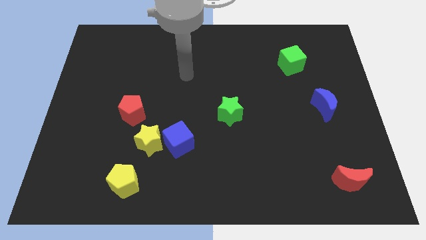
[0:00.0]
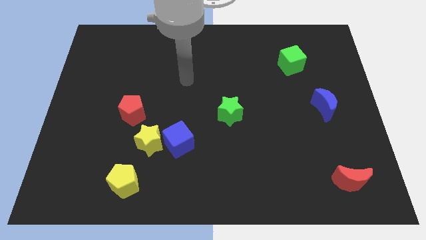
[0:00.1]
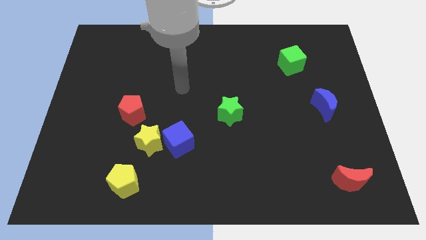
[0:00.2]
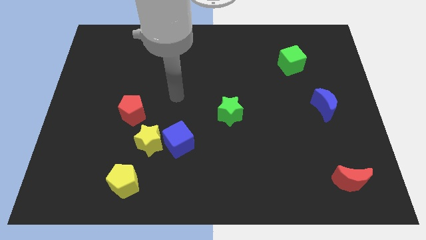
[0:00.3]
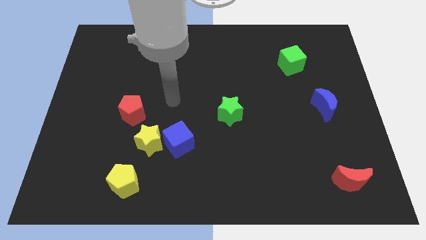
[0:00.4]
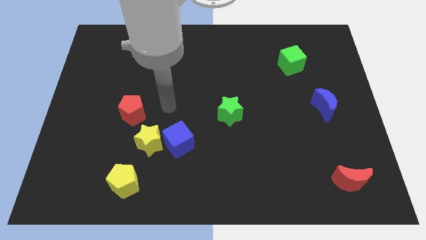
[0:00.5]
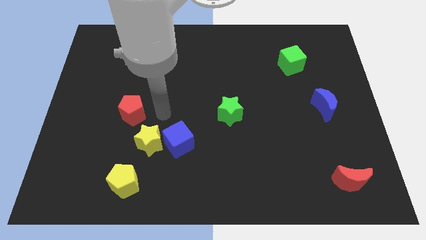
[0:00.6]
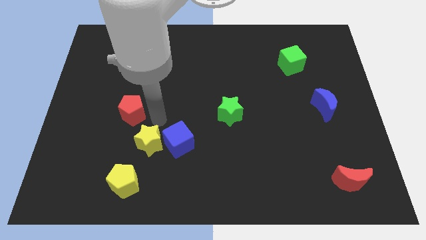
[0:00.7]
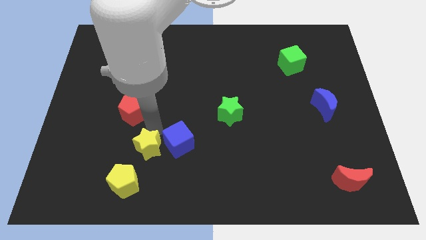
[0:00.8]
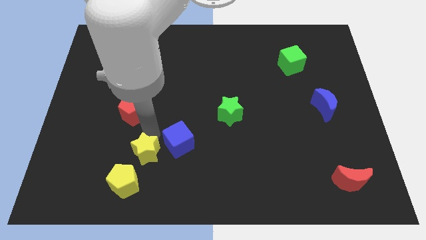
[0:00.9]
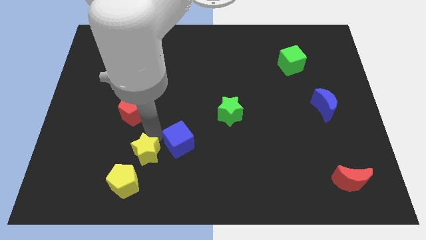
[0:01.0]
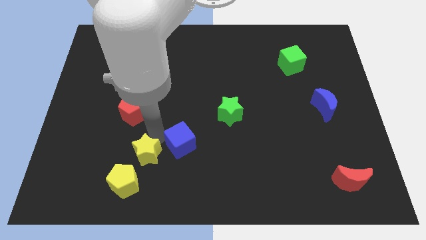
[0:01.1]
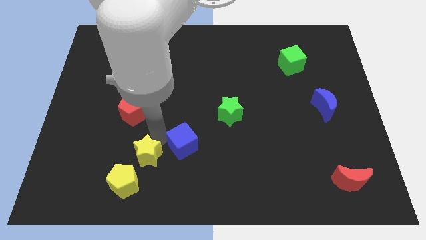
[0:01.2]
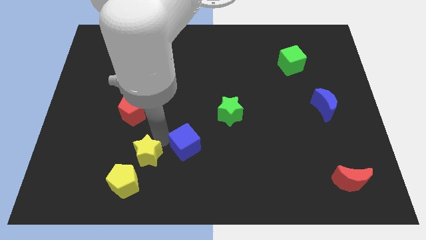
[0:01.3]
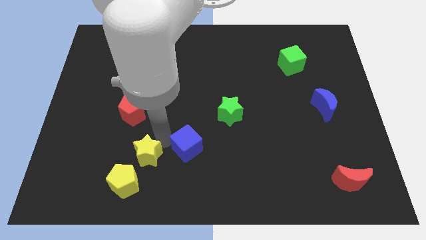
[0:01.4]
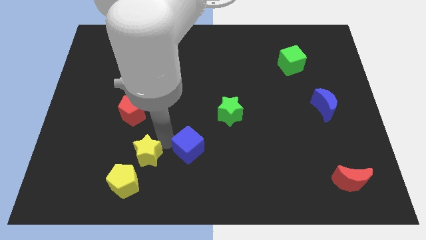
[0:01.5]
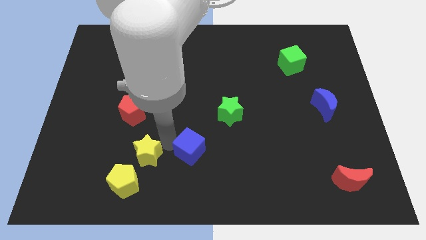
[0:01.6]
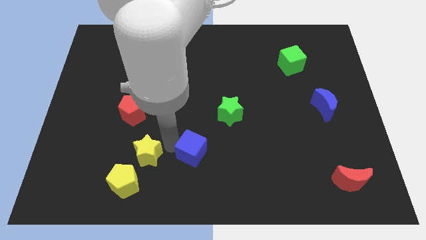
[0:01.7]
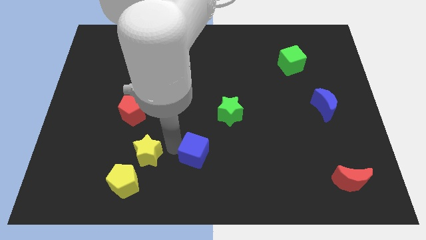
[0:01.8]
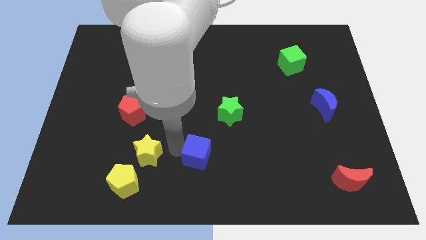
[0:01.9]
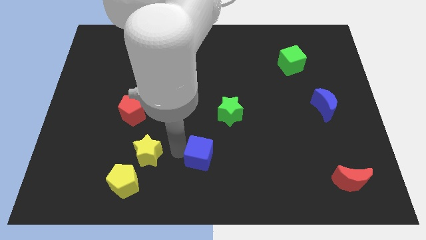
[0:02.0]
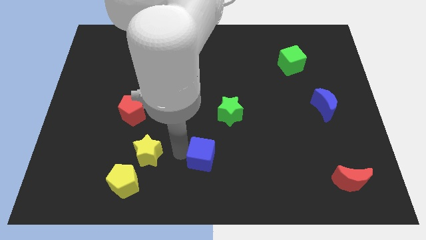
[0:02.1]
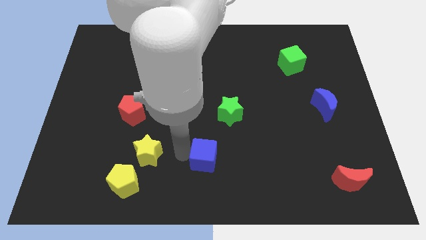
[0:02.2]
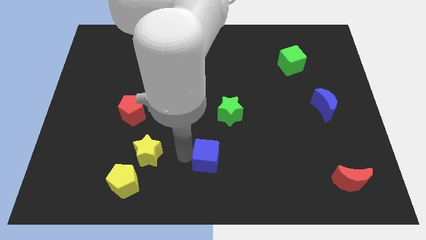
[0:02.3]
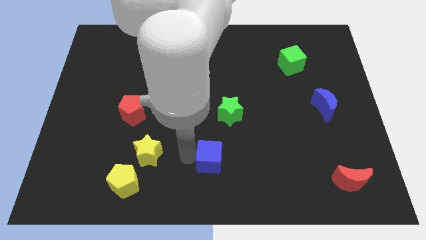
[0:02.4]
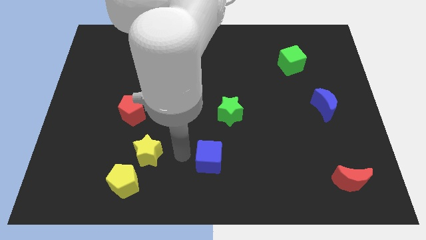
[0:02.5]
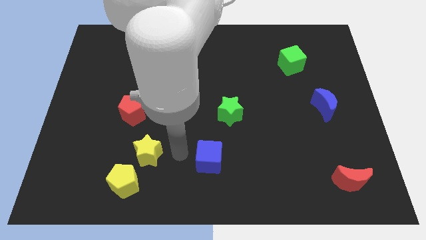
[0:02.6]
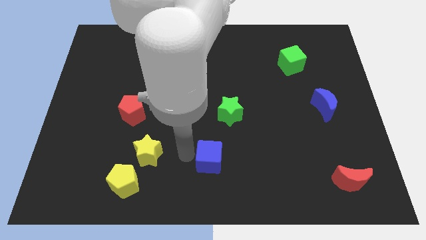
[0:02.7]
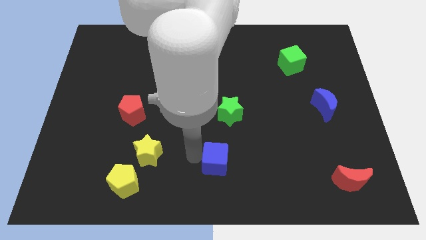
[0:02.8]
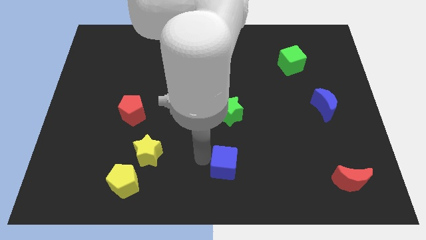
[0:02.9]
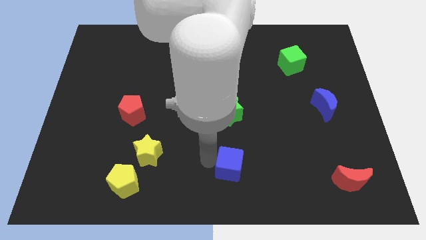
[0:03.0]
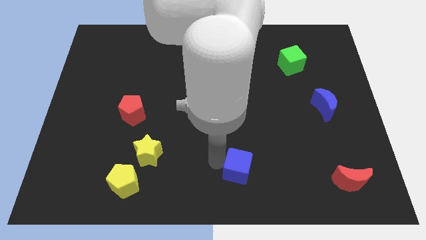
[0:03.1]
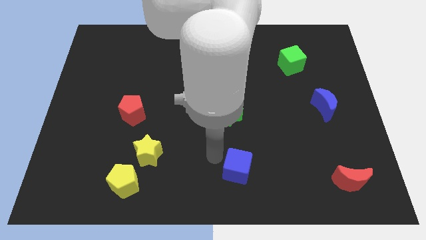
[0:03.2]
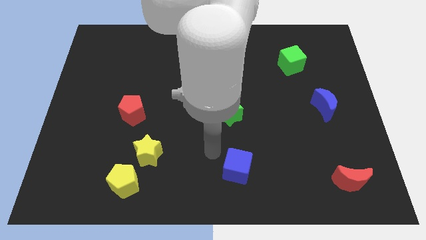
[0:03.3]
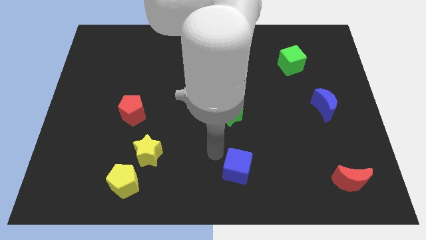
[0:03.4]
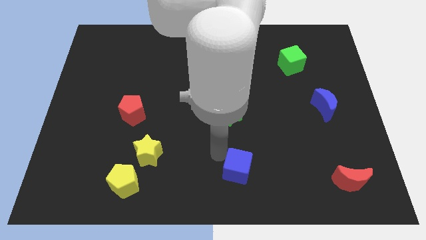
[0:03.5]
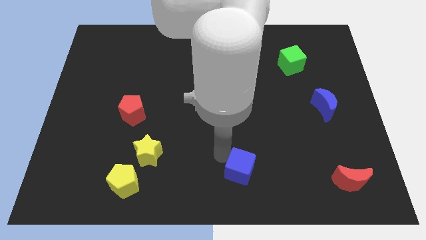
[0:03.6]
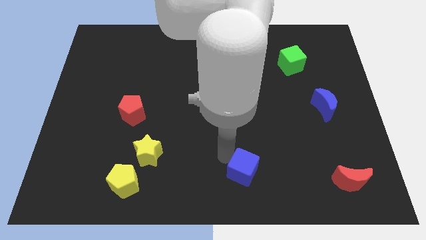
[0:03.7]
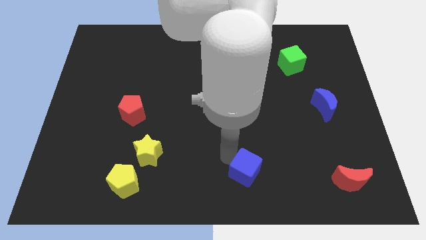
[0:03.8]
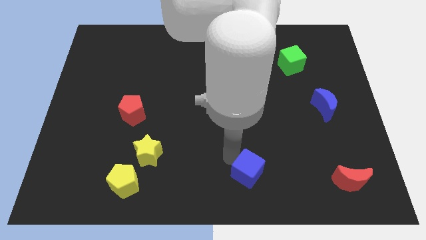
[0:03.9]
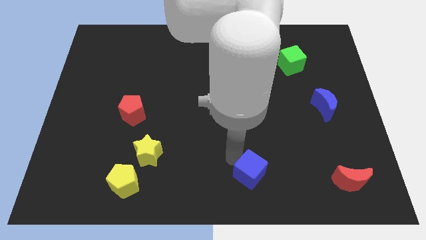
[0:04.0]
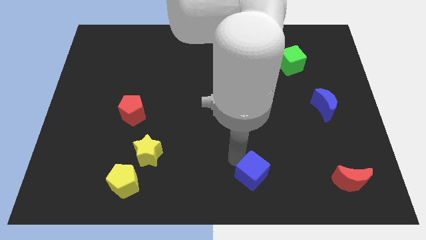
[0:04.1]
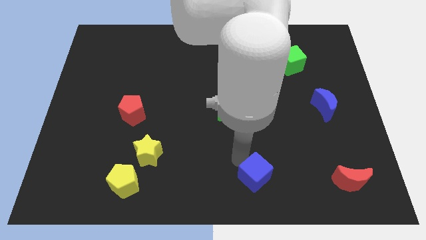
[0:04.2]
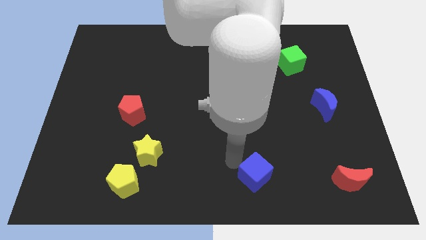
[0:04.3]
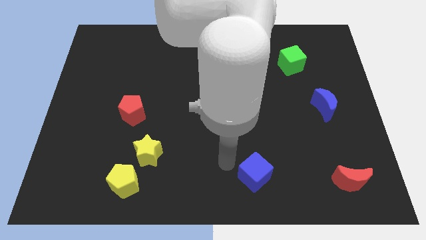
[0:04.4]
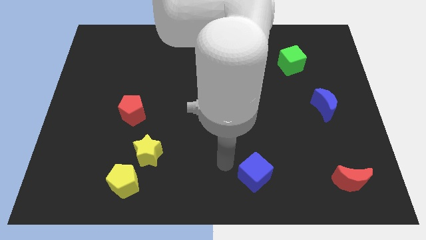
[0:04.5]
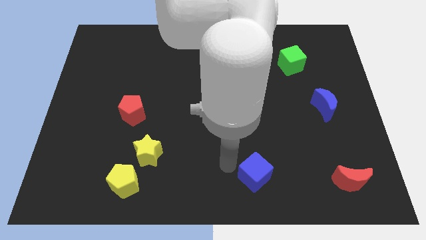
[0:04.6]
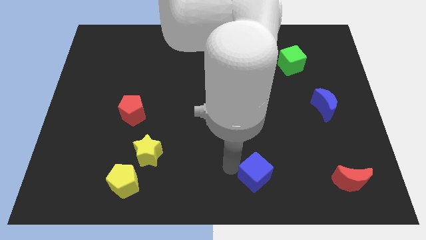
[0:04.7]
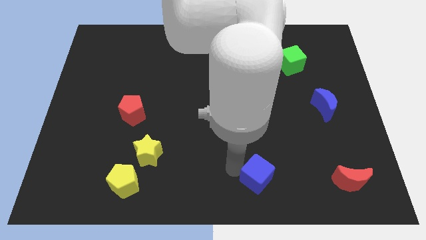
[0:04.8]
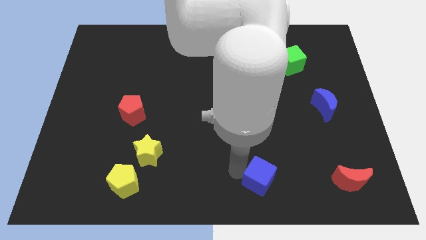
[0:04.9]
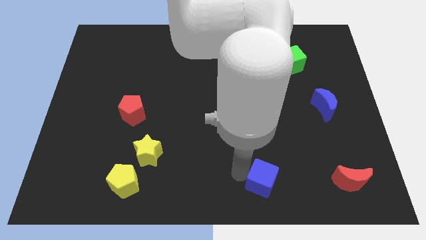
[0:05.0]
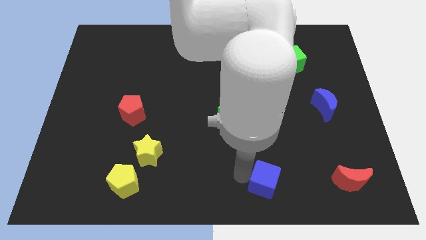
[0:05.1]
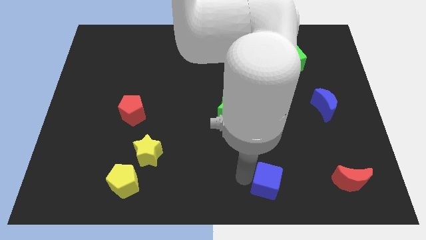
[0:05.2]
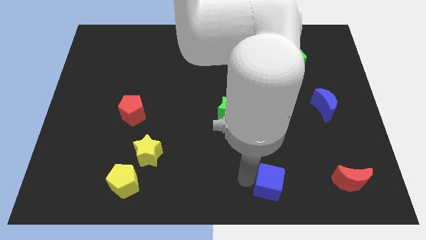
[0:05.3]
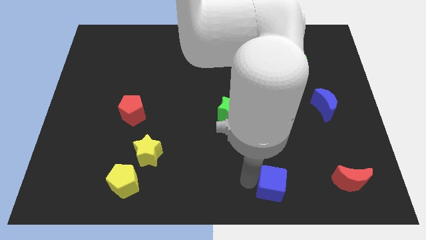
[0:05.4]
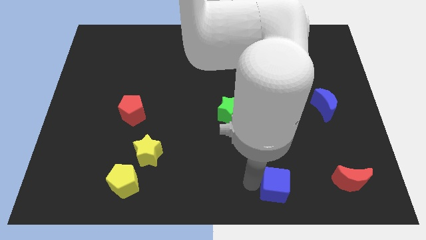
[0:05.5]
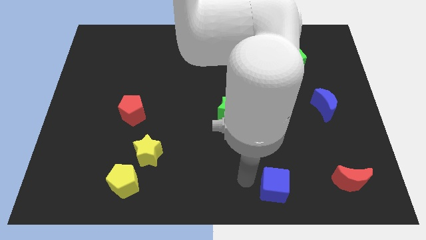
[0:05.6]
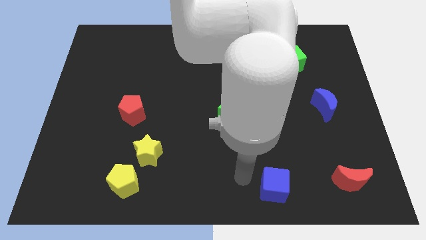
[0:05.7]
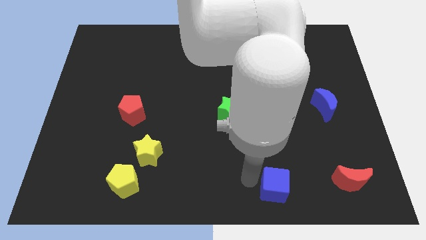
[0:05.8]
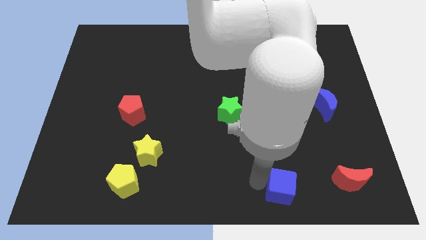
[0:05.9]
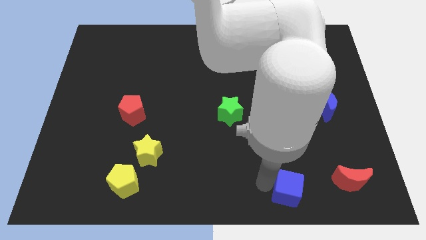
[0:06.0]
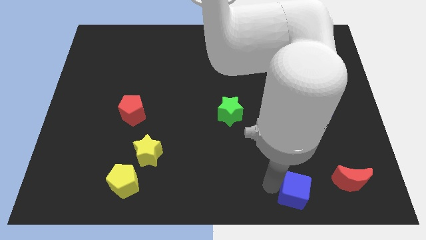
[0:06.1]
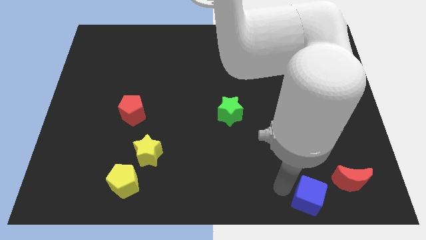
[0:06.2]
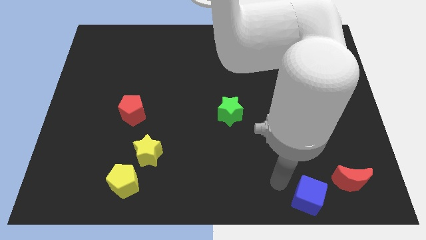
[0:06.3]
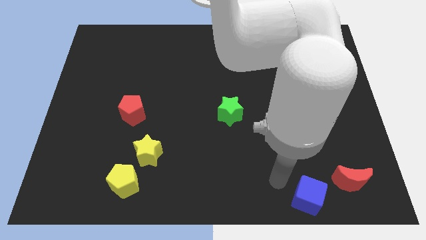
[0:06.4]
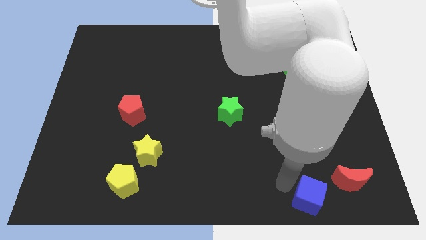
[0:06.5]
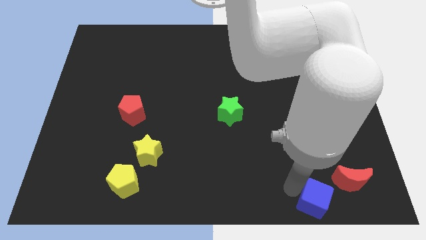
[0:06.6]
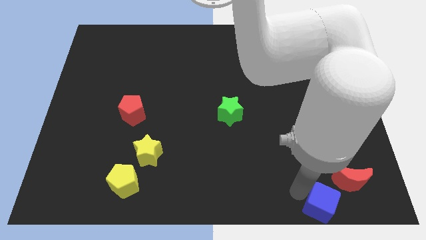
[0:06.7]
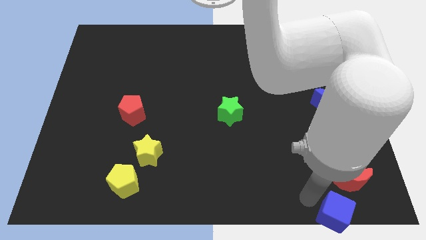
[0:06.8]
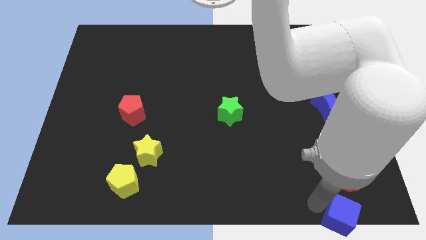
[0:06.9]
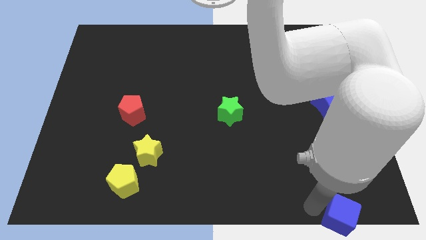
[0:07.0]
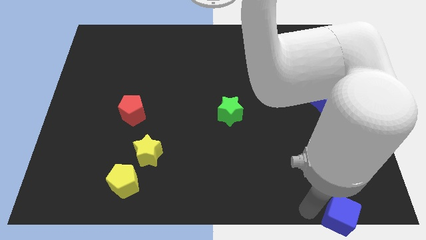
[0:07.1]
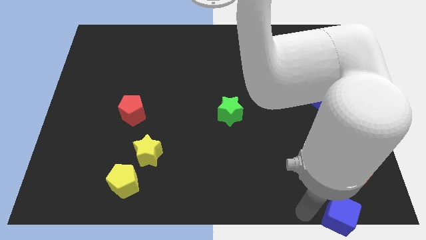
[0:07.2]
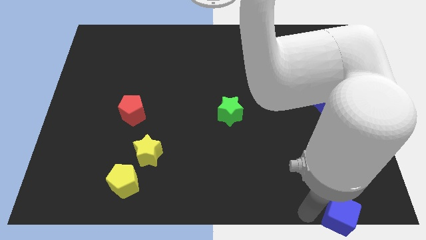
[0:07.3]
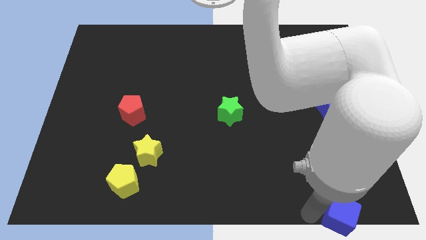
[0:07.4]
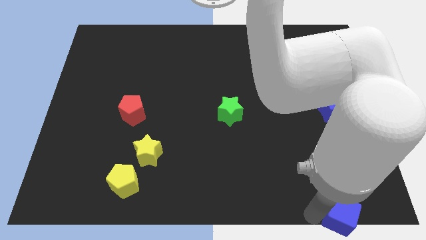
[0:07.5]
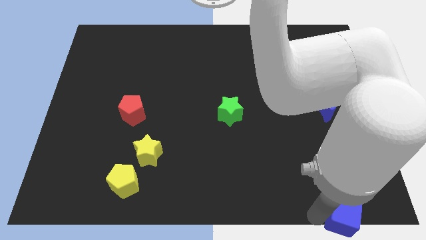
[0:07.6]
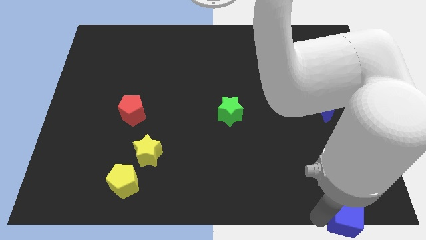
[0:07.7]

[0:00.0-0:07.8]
put the blue cube to the lower right corner
